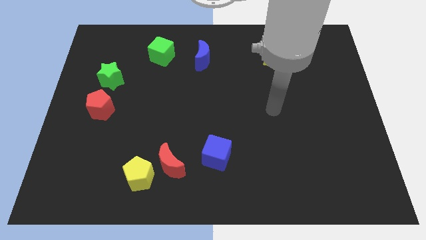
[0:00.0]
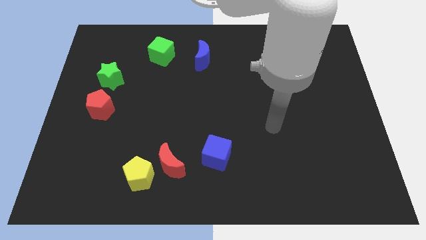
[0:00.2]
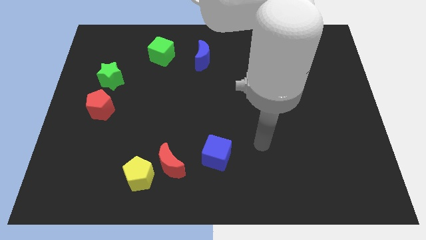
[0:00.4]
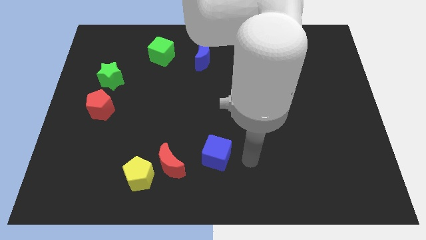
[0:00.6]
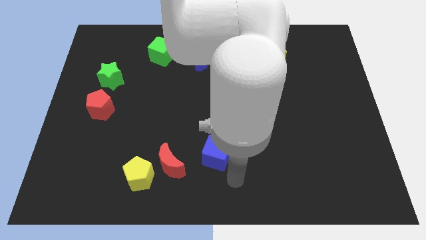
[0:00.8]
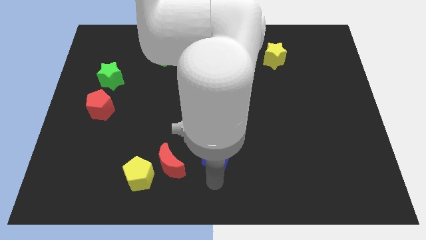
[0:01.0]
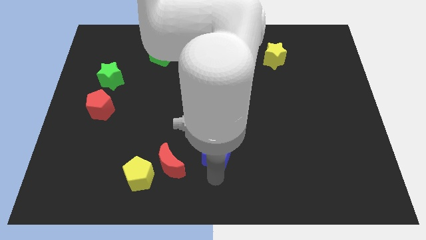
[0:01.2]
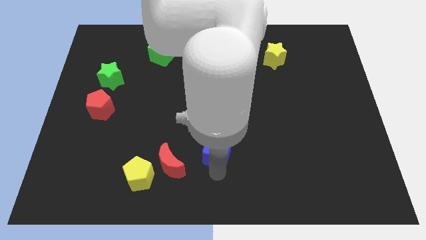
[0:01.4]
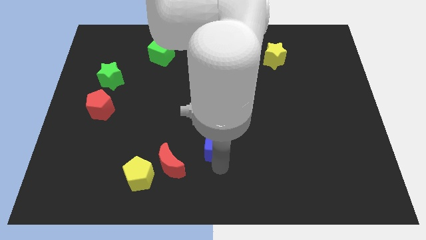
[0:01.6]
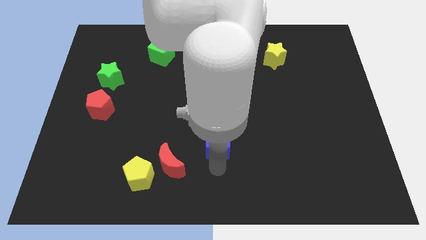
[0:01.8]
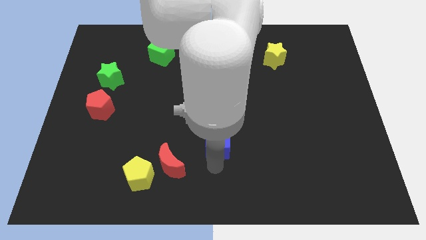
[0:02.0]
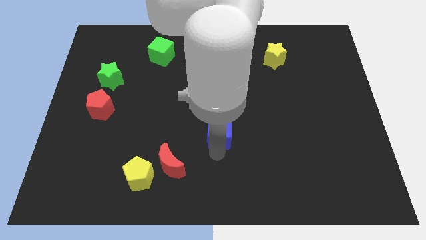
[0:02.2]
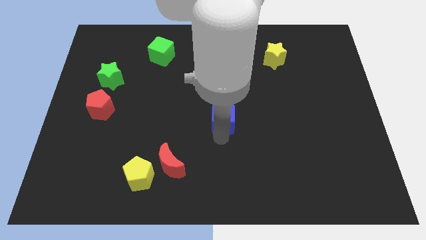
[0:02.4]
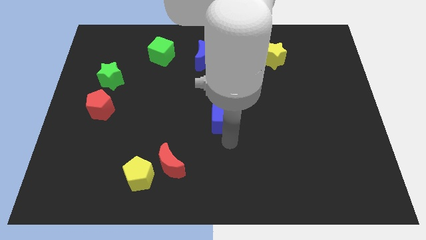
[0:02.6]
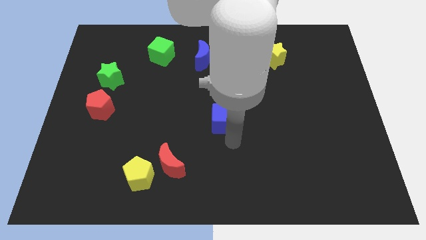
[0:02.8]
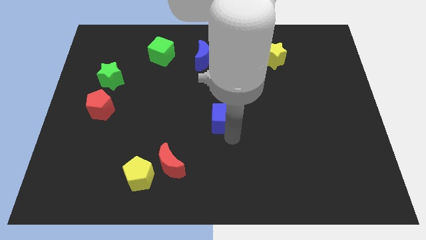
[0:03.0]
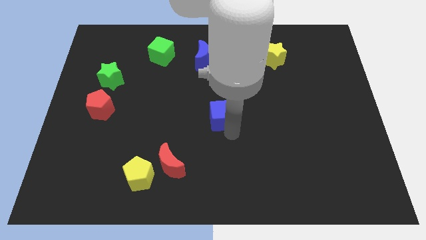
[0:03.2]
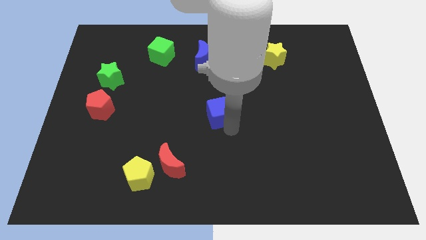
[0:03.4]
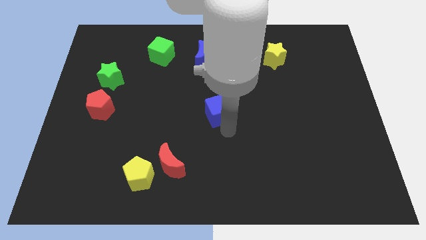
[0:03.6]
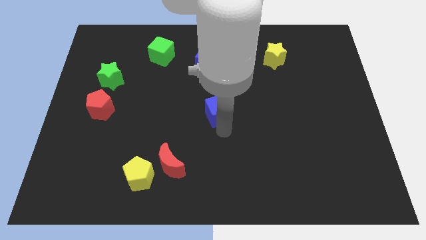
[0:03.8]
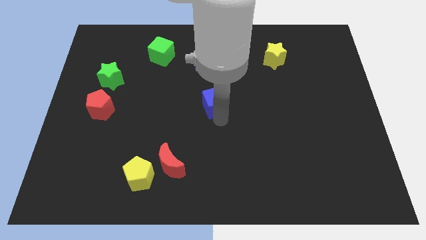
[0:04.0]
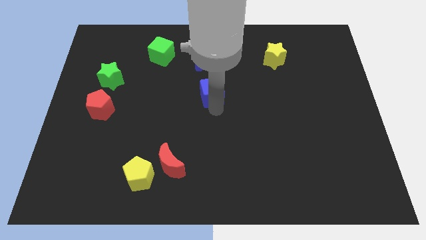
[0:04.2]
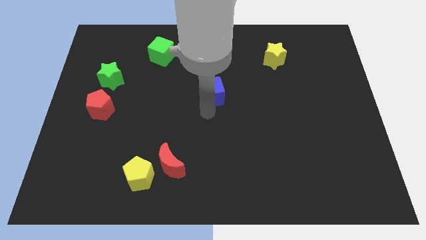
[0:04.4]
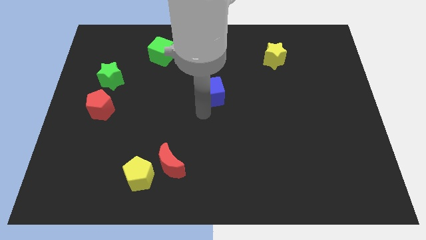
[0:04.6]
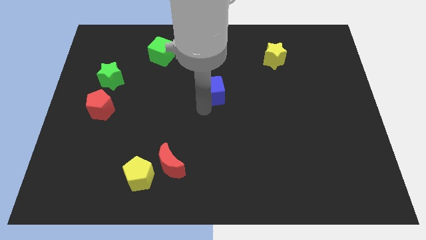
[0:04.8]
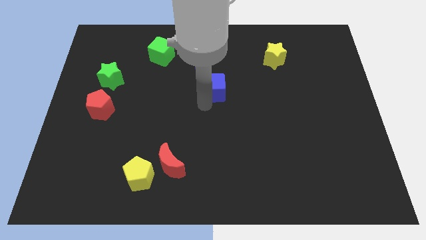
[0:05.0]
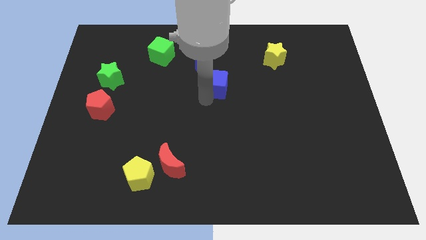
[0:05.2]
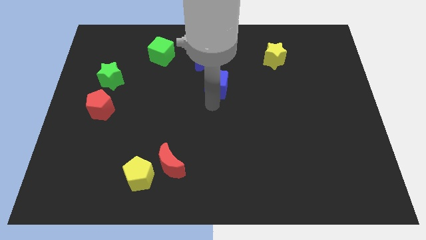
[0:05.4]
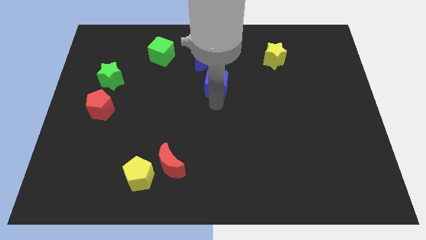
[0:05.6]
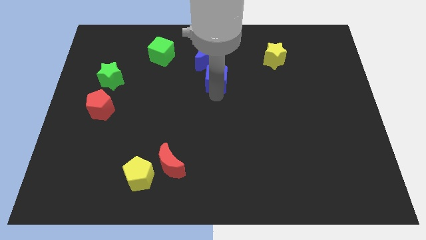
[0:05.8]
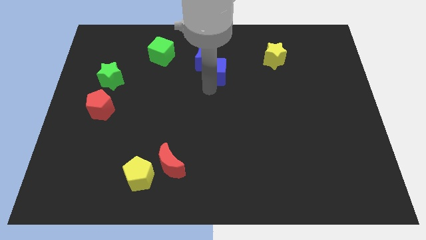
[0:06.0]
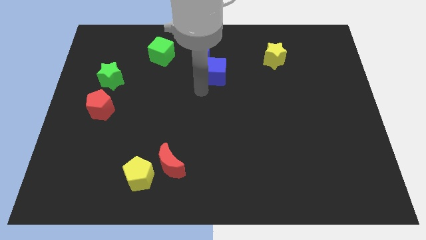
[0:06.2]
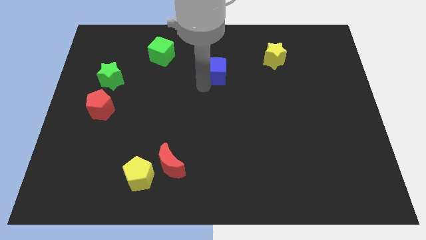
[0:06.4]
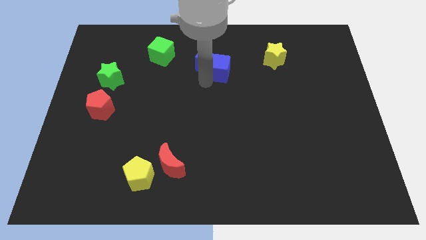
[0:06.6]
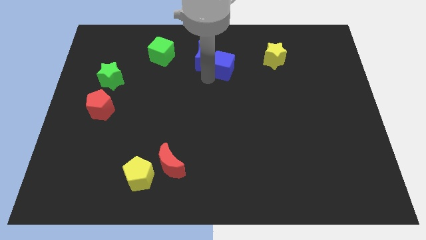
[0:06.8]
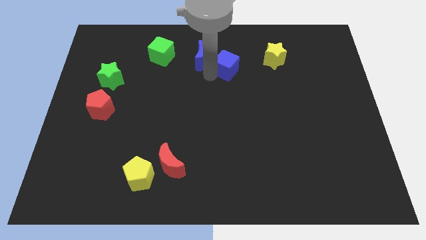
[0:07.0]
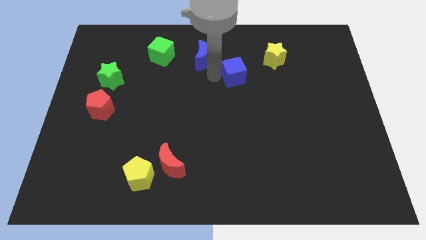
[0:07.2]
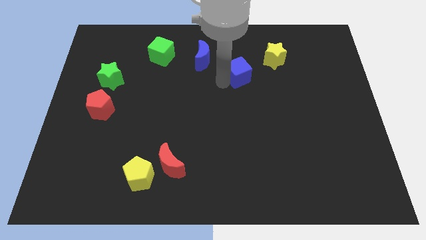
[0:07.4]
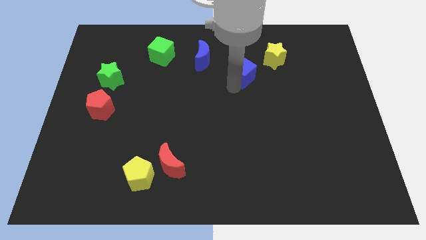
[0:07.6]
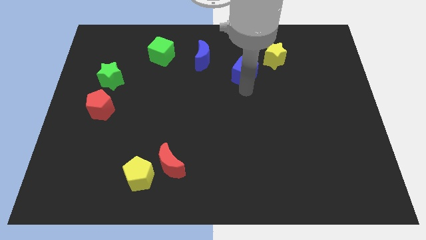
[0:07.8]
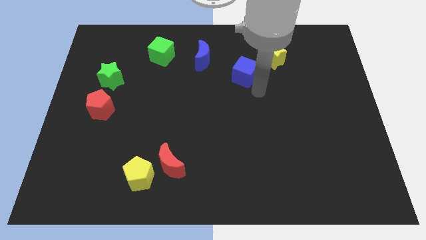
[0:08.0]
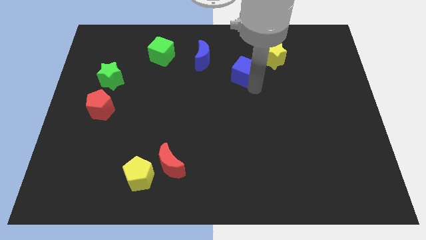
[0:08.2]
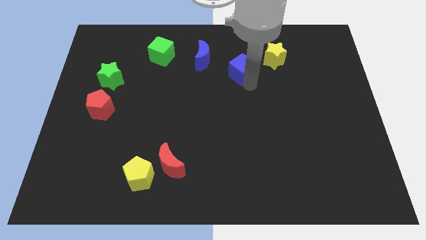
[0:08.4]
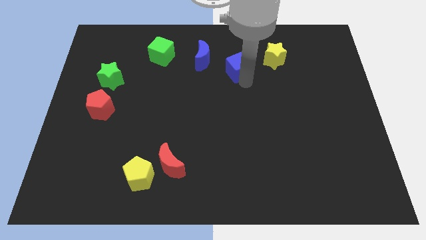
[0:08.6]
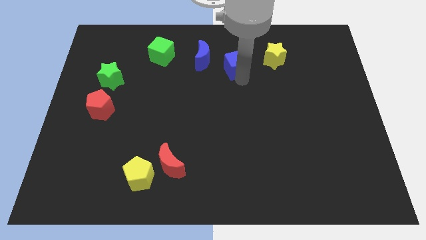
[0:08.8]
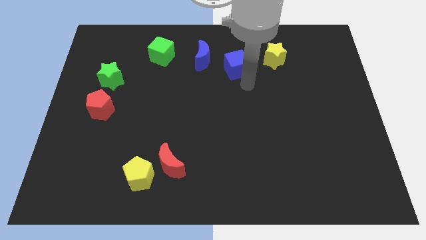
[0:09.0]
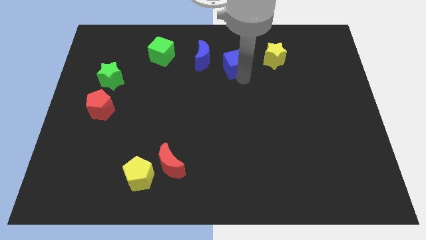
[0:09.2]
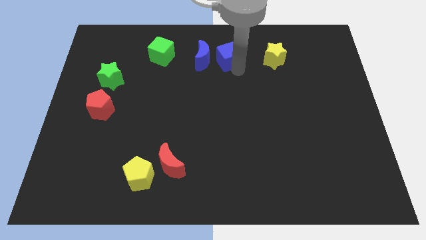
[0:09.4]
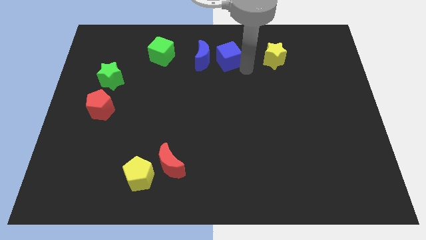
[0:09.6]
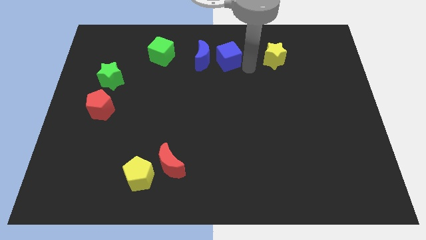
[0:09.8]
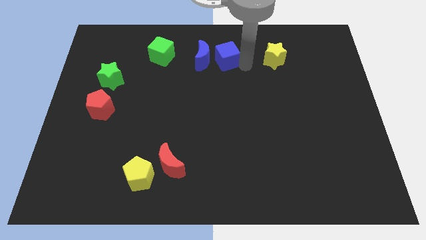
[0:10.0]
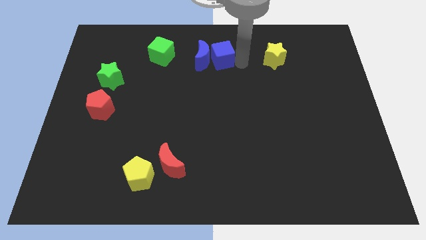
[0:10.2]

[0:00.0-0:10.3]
push the blue cube right of the green cube

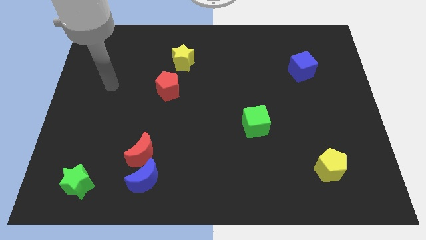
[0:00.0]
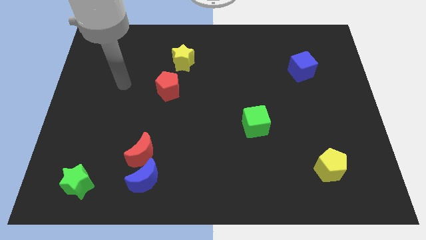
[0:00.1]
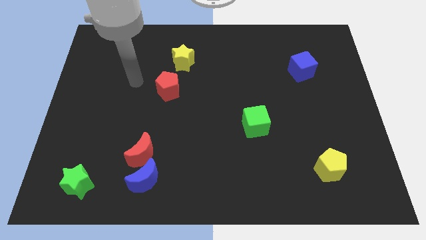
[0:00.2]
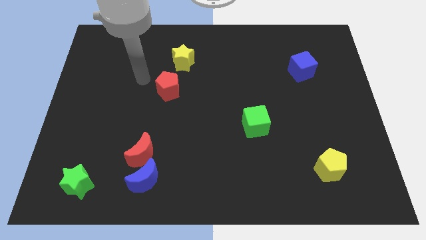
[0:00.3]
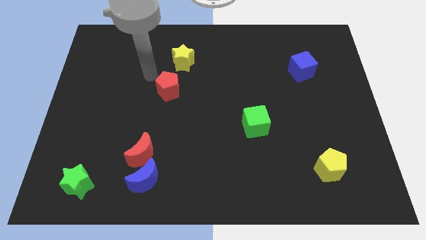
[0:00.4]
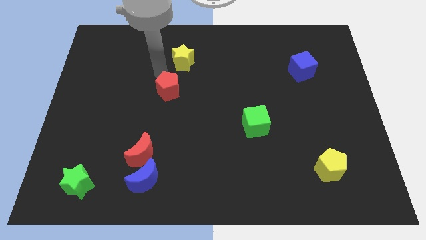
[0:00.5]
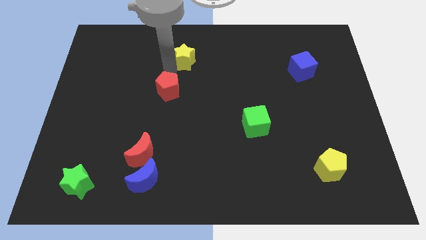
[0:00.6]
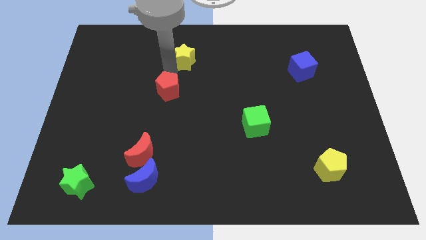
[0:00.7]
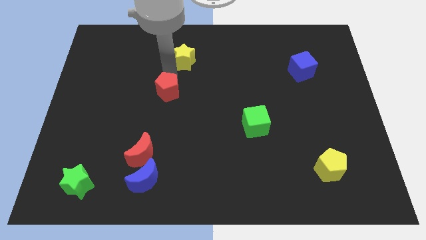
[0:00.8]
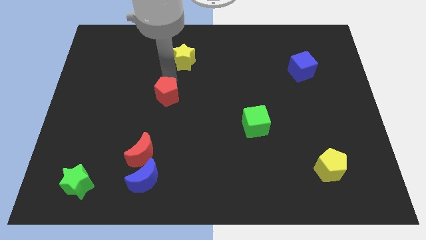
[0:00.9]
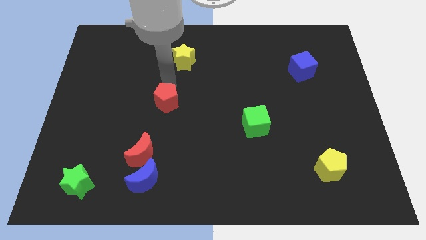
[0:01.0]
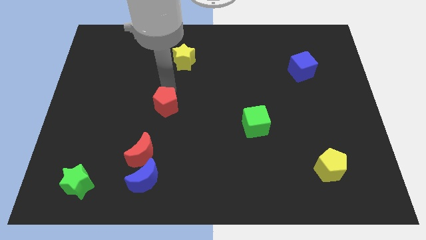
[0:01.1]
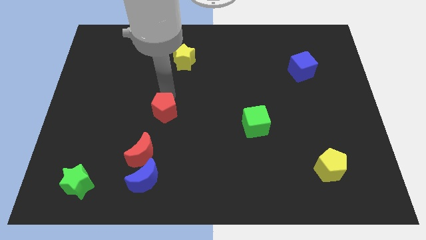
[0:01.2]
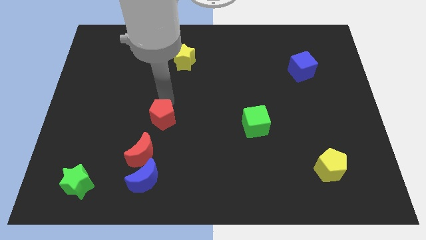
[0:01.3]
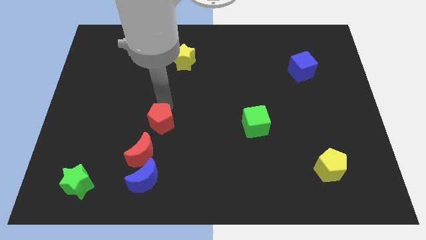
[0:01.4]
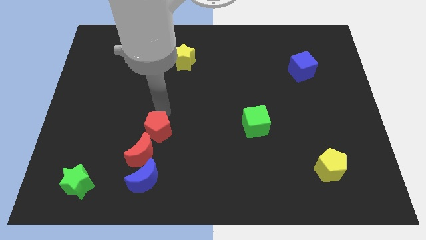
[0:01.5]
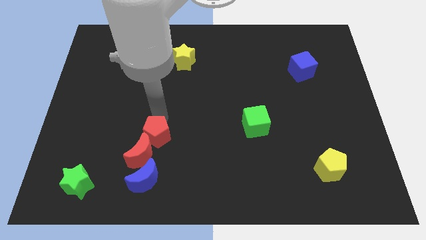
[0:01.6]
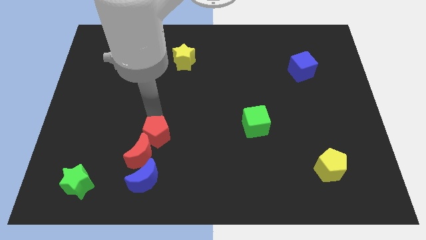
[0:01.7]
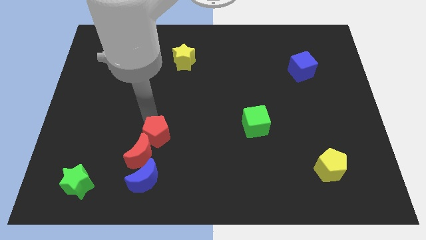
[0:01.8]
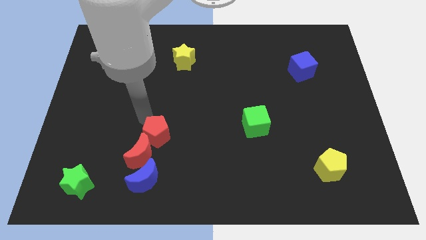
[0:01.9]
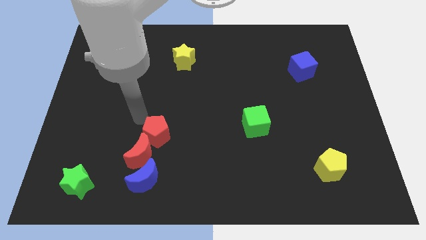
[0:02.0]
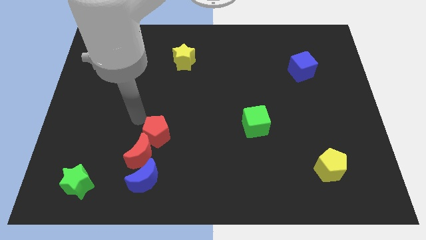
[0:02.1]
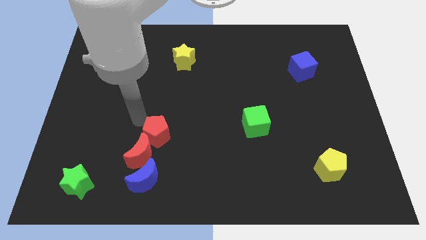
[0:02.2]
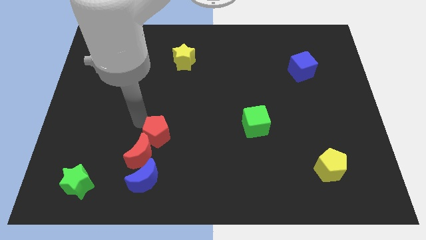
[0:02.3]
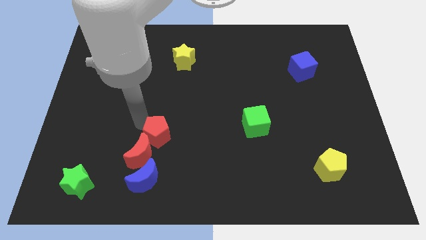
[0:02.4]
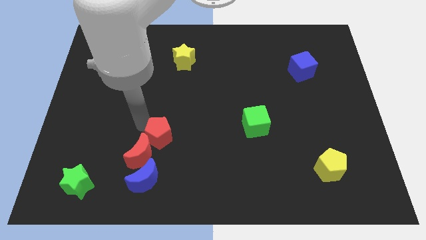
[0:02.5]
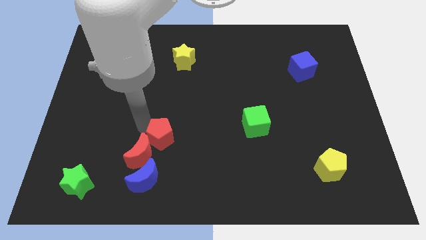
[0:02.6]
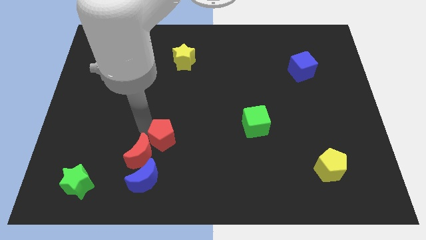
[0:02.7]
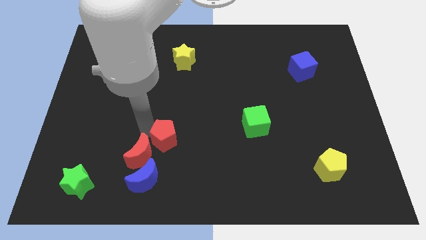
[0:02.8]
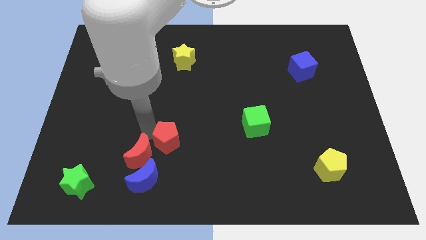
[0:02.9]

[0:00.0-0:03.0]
slide the red pentagon to the top right side of the blue moon
